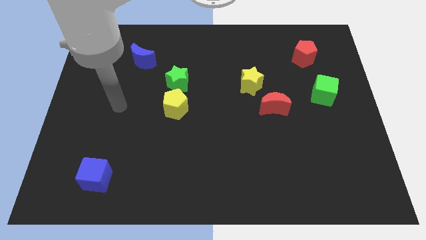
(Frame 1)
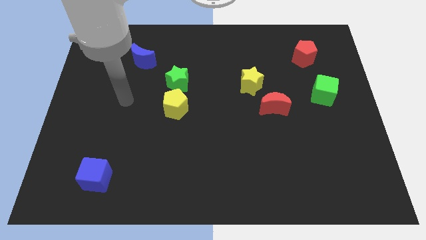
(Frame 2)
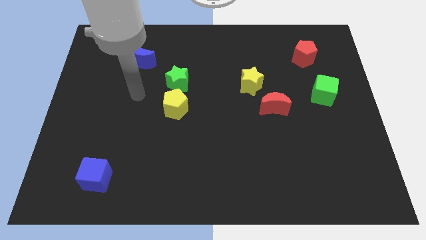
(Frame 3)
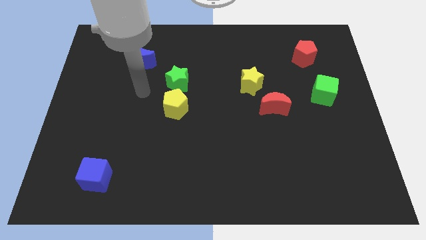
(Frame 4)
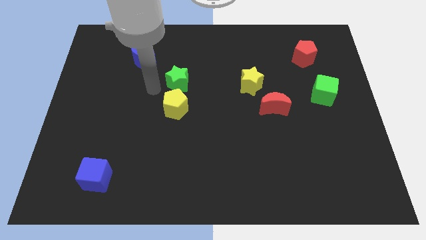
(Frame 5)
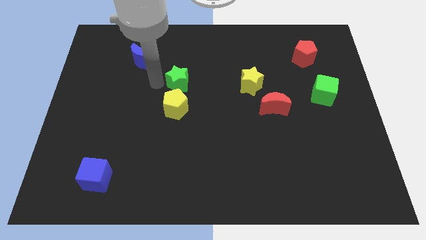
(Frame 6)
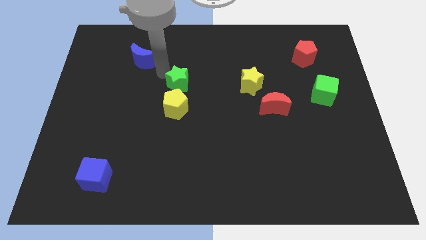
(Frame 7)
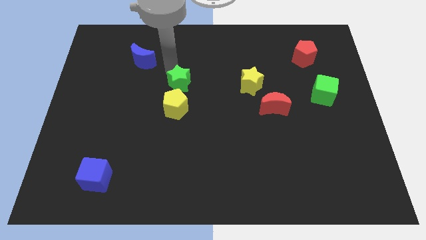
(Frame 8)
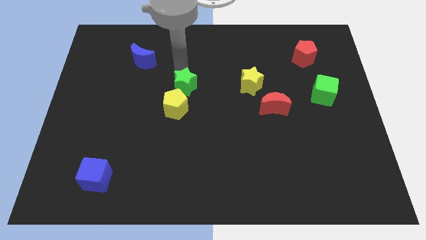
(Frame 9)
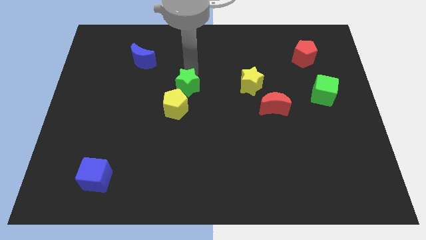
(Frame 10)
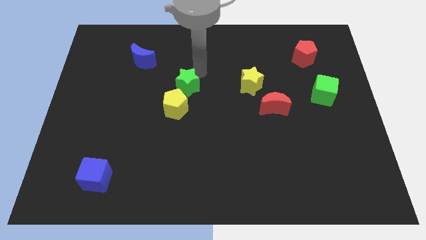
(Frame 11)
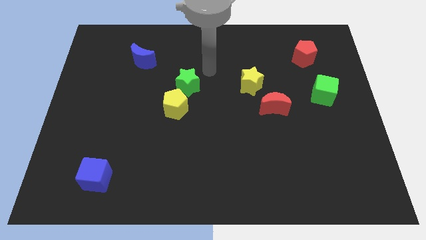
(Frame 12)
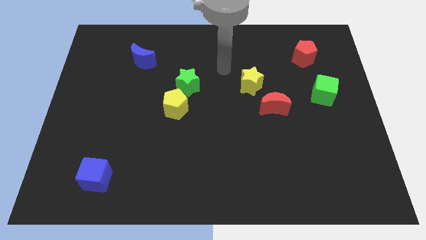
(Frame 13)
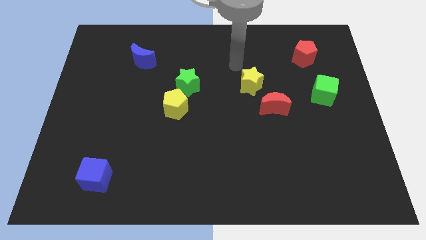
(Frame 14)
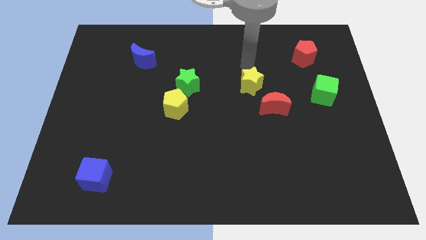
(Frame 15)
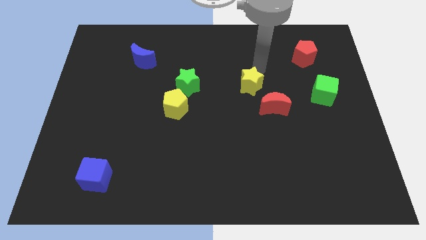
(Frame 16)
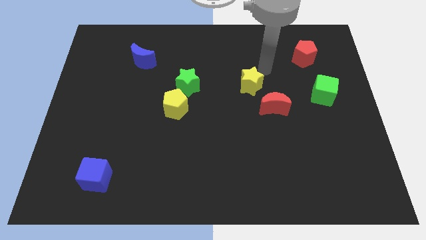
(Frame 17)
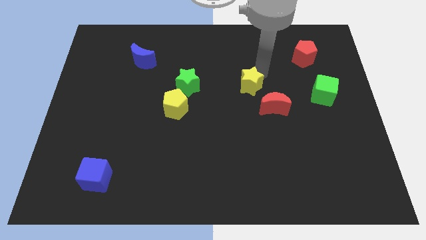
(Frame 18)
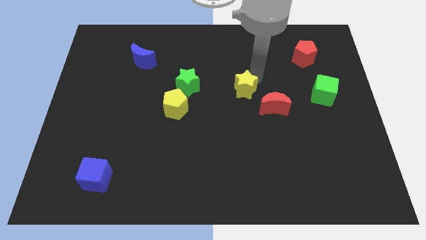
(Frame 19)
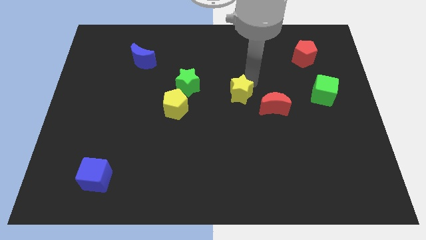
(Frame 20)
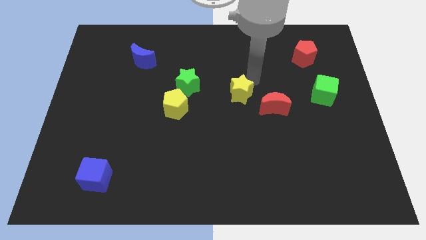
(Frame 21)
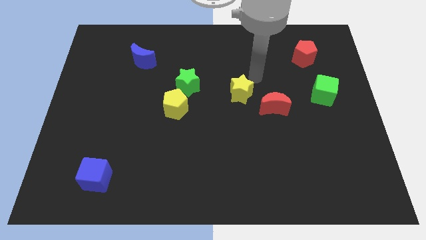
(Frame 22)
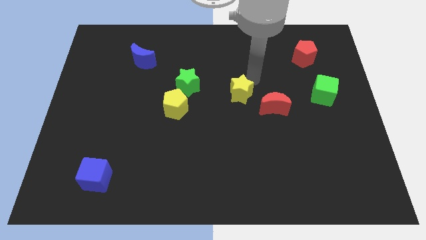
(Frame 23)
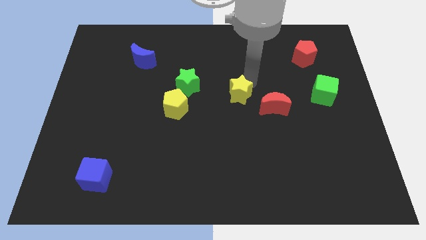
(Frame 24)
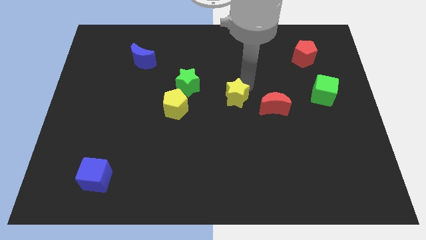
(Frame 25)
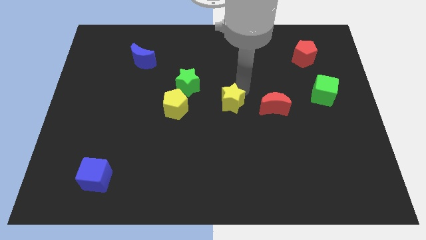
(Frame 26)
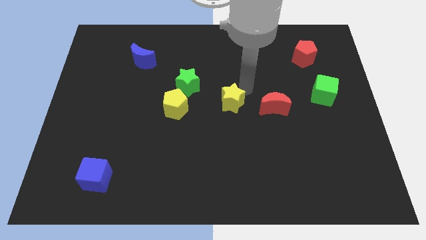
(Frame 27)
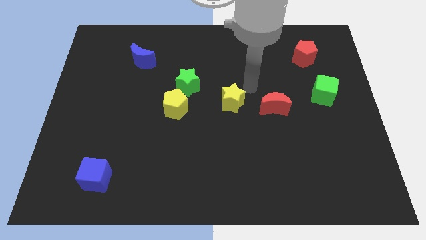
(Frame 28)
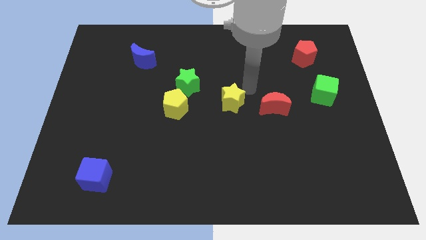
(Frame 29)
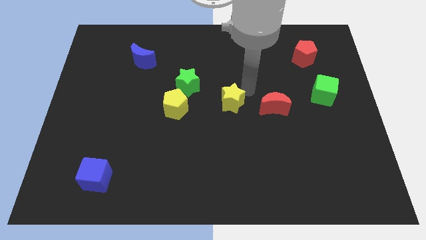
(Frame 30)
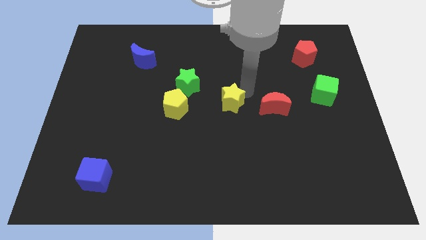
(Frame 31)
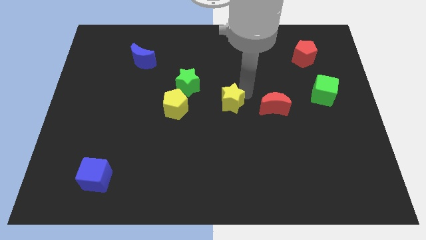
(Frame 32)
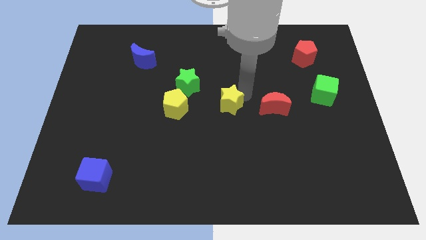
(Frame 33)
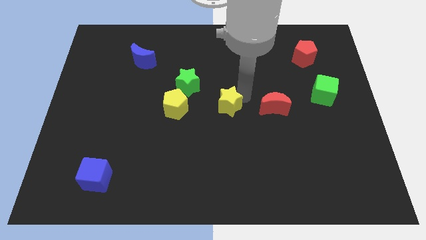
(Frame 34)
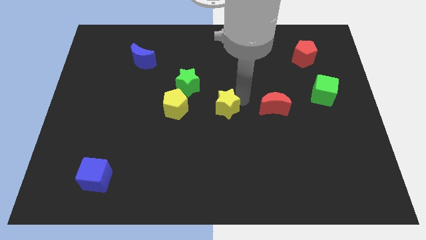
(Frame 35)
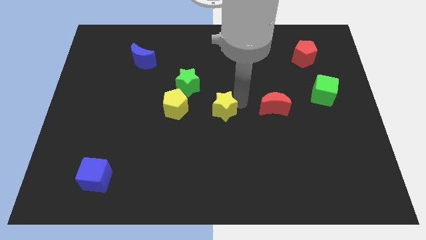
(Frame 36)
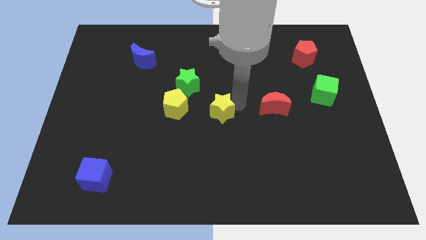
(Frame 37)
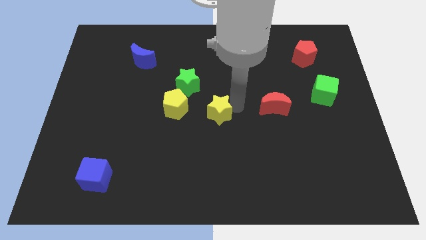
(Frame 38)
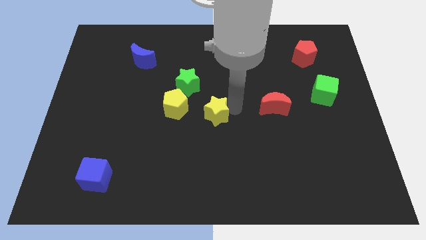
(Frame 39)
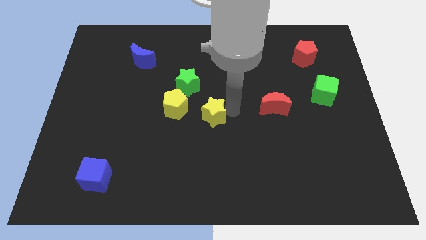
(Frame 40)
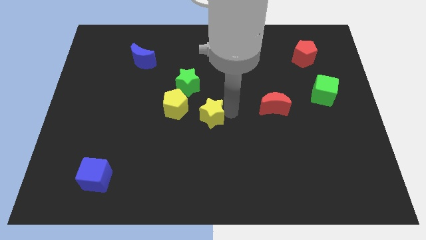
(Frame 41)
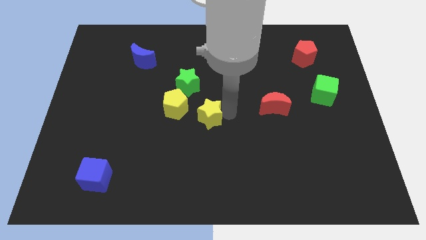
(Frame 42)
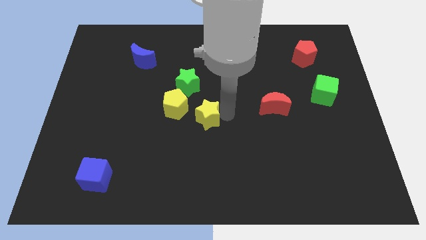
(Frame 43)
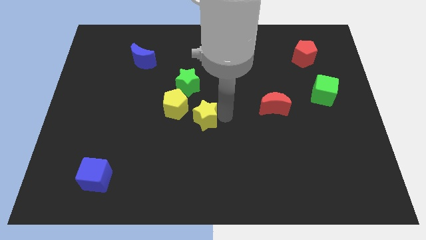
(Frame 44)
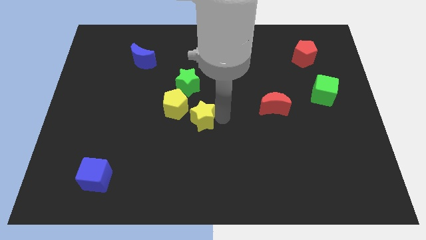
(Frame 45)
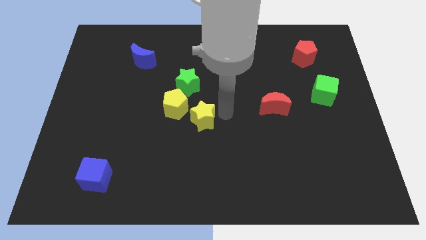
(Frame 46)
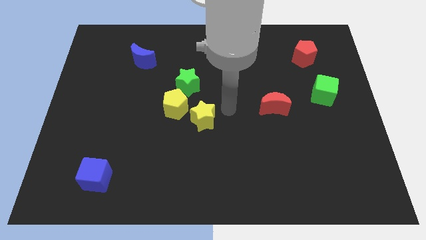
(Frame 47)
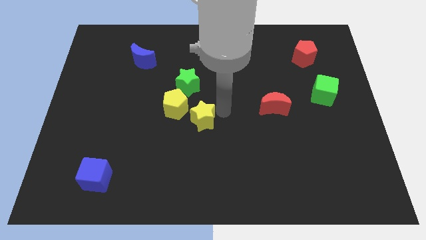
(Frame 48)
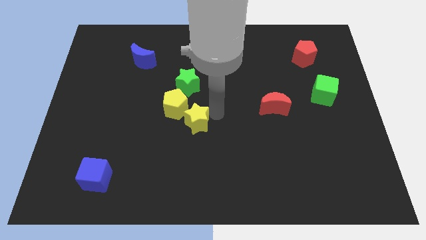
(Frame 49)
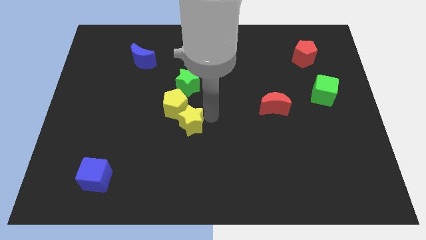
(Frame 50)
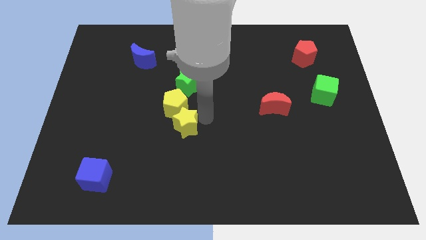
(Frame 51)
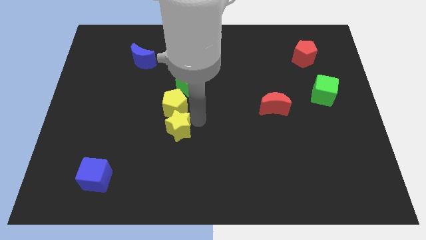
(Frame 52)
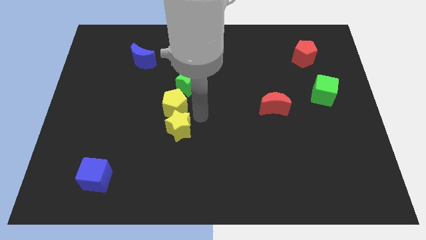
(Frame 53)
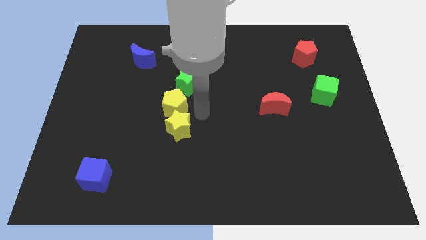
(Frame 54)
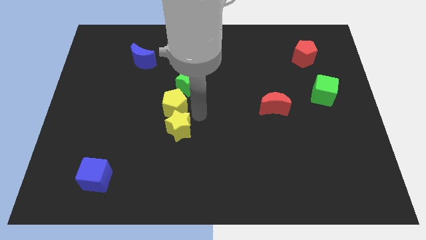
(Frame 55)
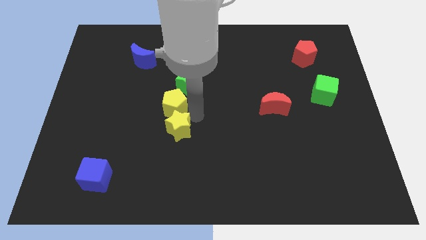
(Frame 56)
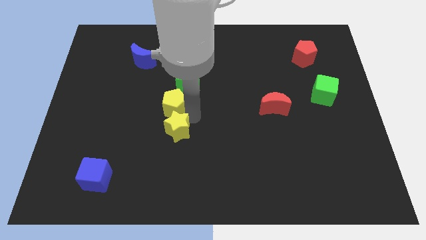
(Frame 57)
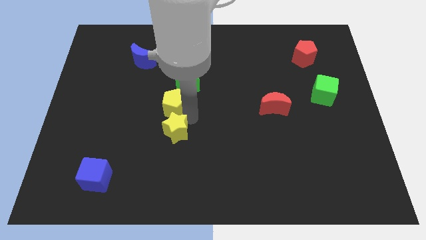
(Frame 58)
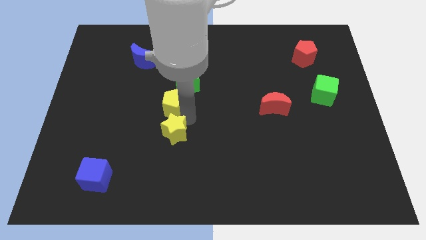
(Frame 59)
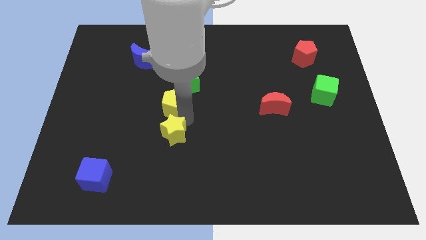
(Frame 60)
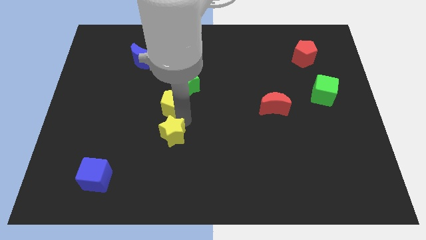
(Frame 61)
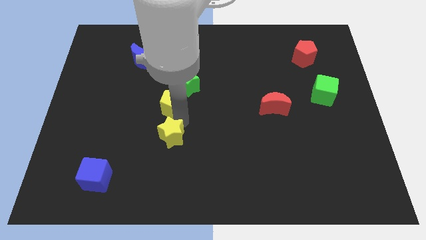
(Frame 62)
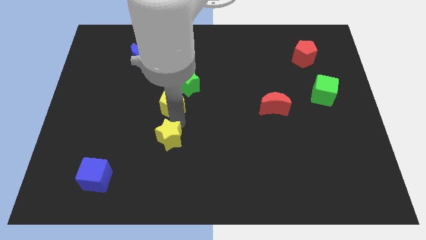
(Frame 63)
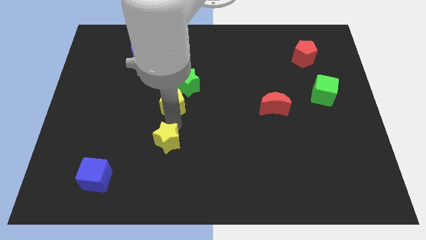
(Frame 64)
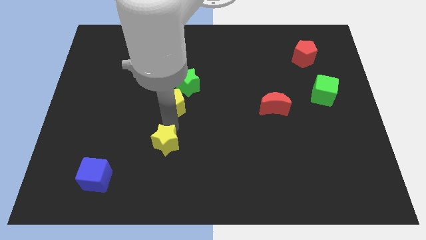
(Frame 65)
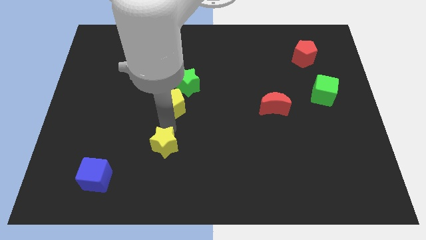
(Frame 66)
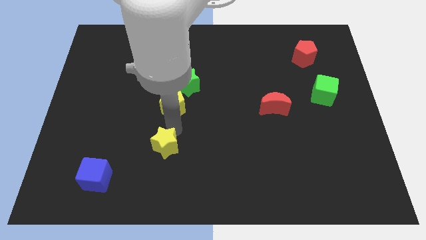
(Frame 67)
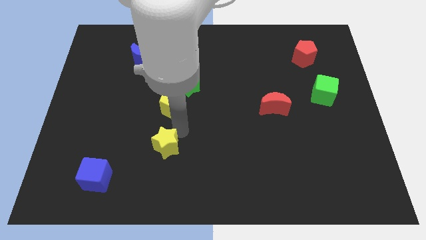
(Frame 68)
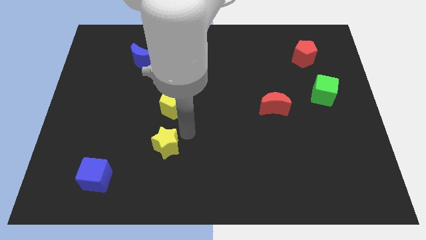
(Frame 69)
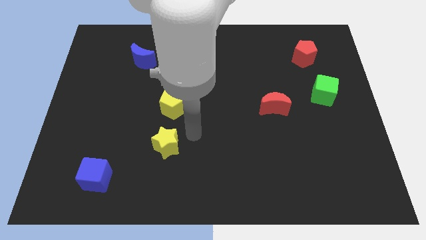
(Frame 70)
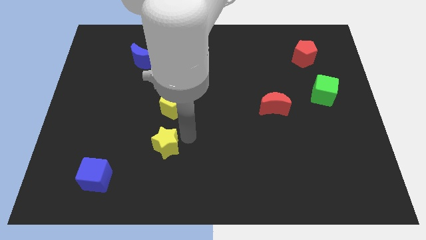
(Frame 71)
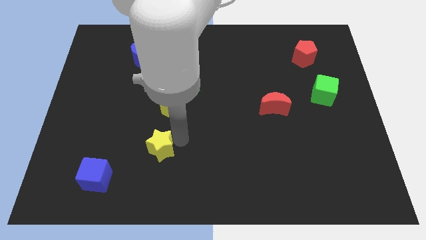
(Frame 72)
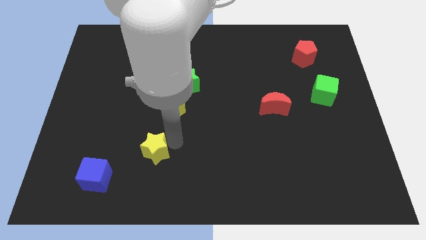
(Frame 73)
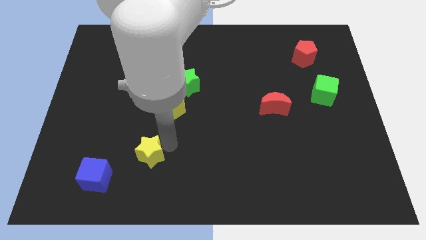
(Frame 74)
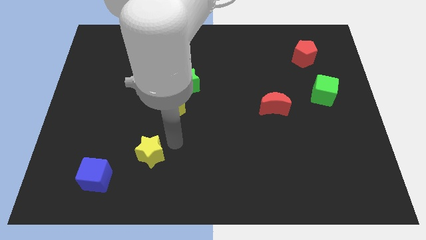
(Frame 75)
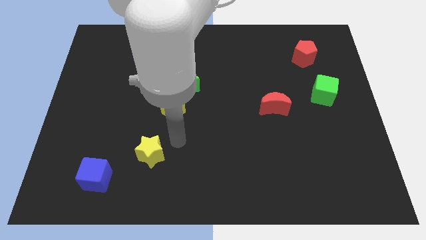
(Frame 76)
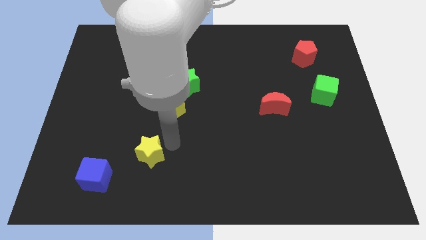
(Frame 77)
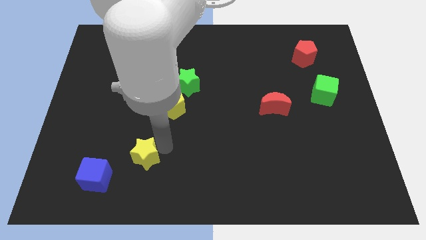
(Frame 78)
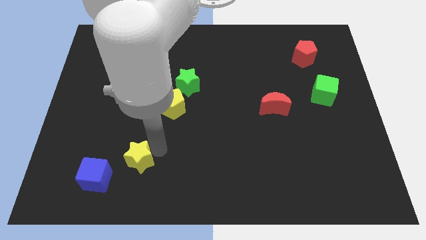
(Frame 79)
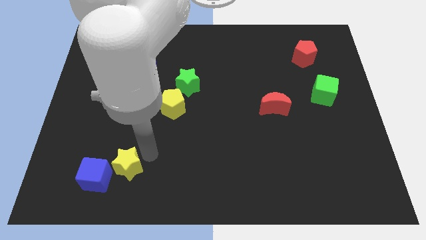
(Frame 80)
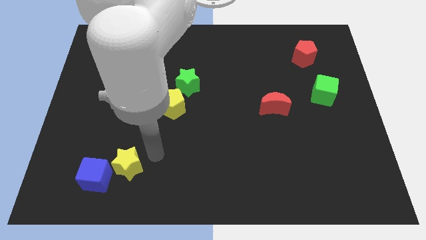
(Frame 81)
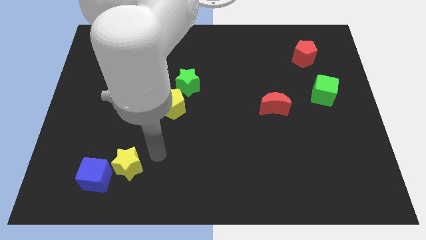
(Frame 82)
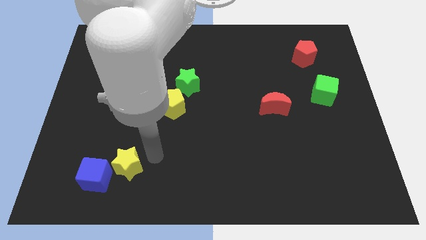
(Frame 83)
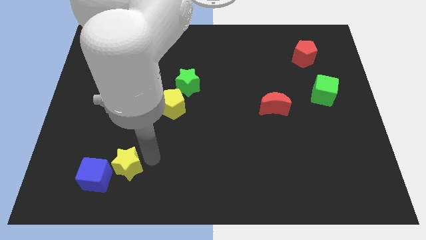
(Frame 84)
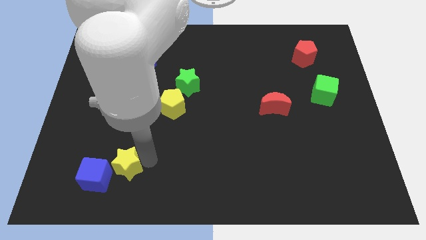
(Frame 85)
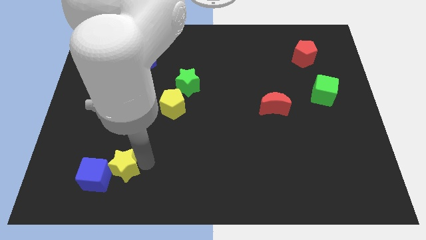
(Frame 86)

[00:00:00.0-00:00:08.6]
put the yellow star next to the blue cube
